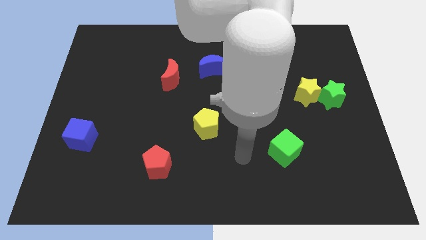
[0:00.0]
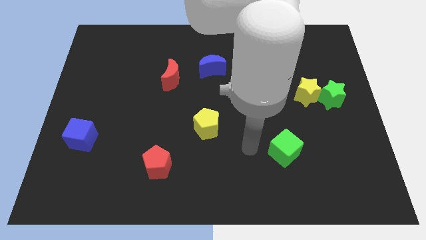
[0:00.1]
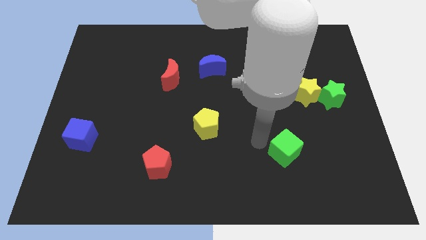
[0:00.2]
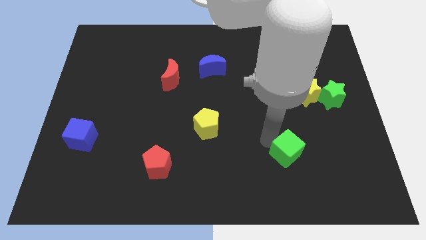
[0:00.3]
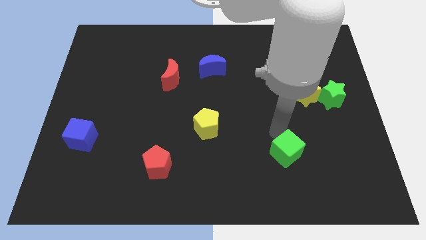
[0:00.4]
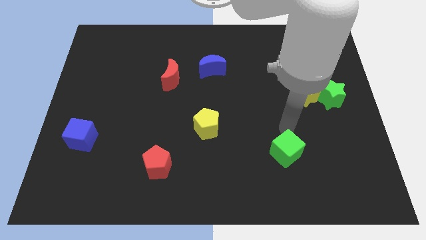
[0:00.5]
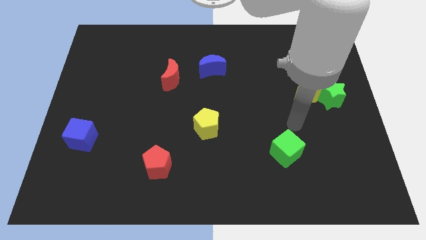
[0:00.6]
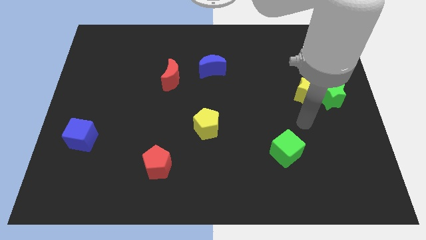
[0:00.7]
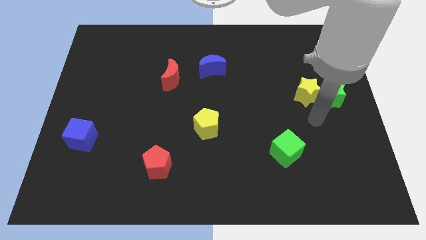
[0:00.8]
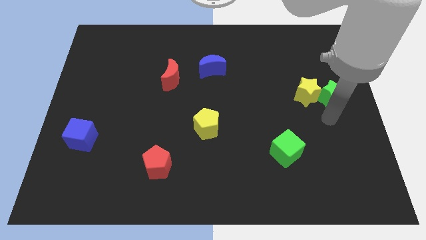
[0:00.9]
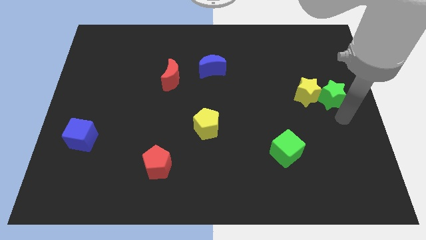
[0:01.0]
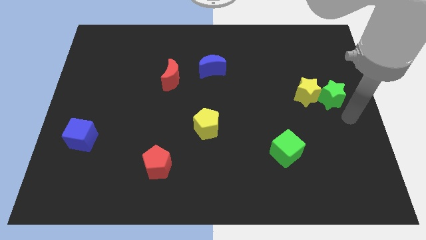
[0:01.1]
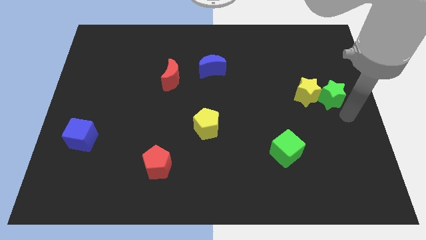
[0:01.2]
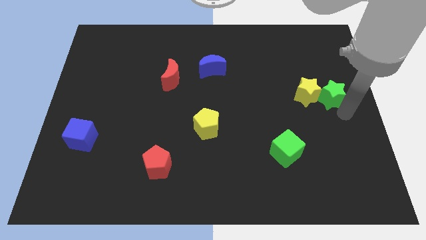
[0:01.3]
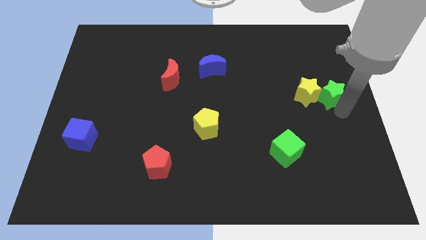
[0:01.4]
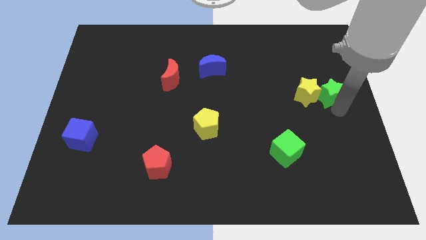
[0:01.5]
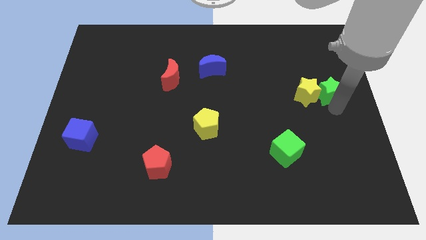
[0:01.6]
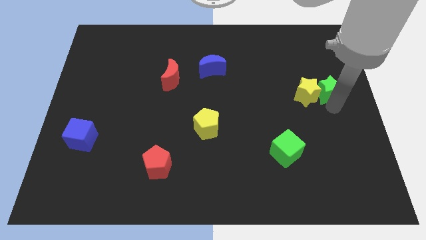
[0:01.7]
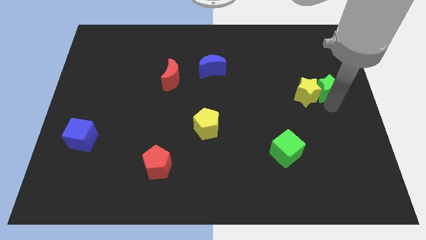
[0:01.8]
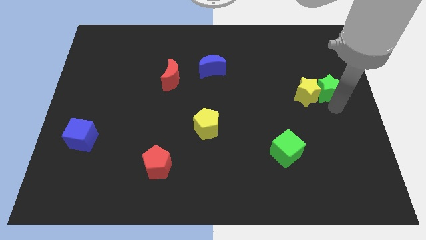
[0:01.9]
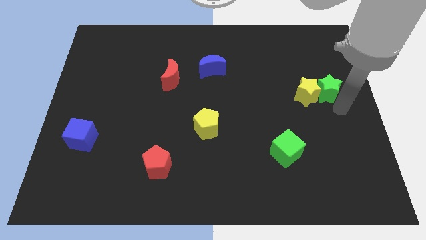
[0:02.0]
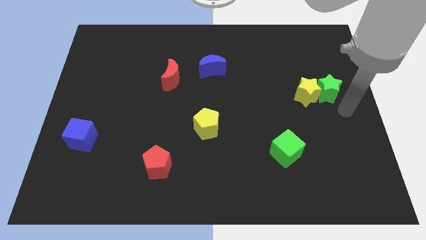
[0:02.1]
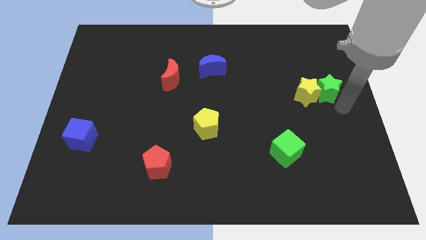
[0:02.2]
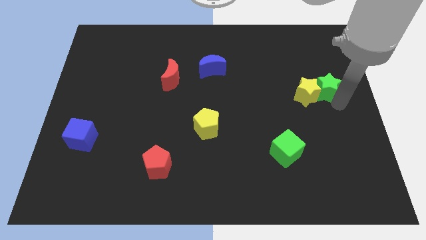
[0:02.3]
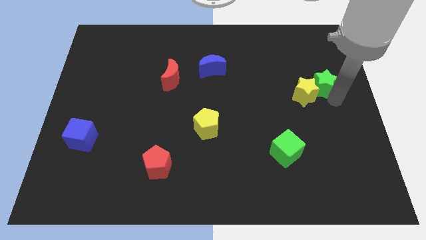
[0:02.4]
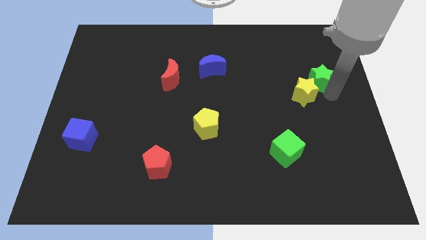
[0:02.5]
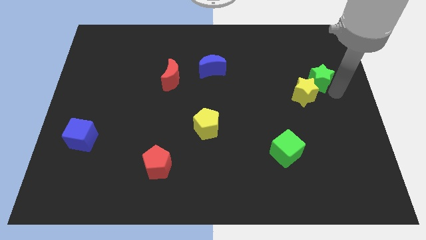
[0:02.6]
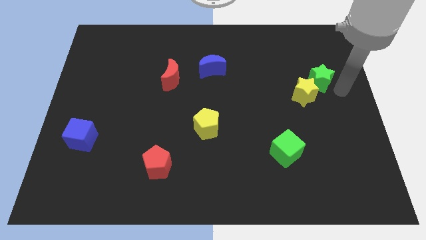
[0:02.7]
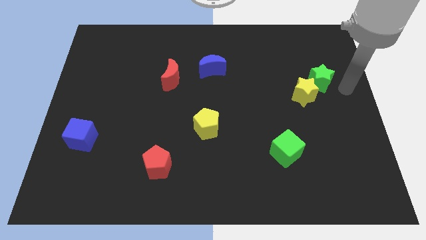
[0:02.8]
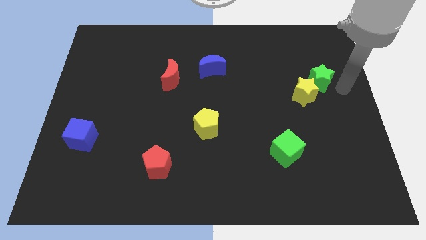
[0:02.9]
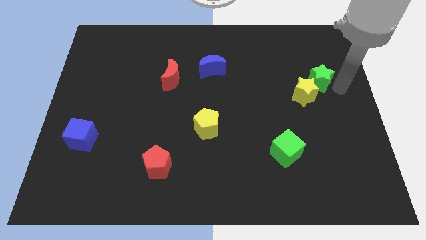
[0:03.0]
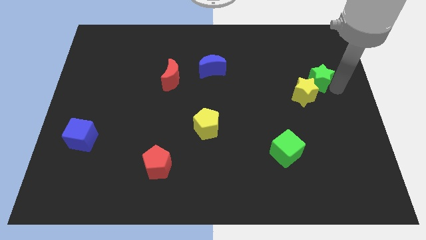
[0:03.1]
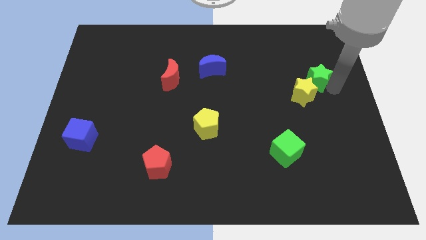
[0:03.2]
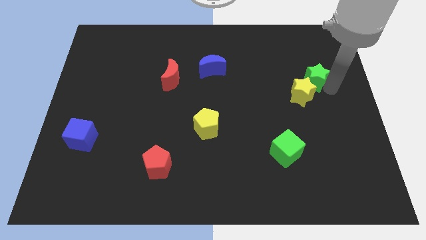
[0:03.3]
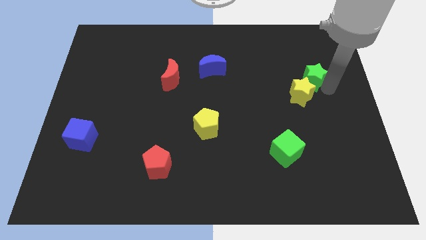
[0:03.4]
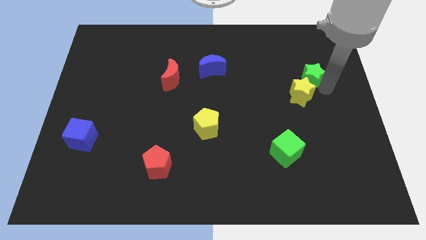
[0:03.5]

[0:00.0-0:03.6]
push the green star diagonally upwards and left a little

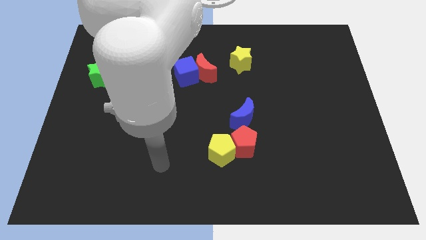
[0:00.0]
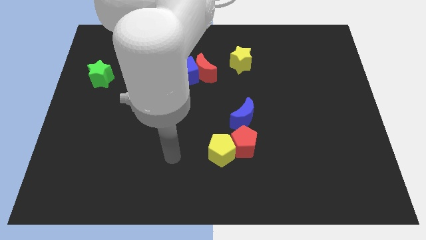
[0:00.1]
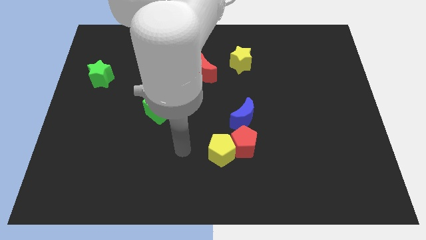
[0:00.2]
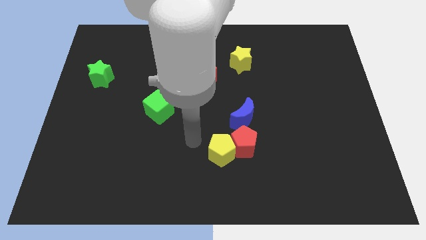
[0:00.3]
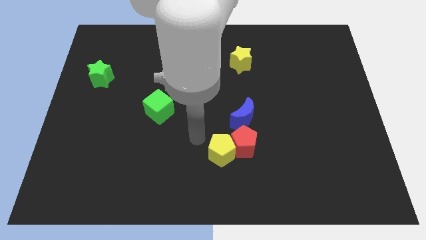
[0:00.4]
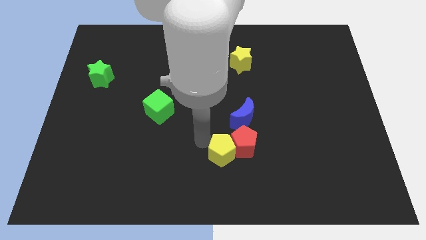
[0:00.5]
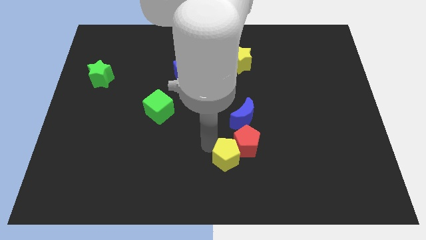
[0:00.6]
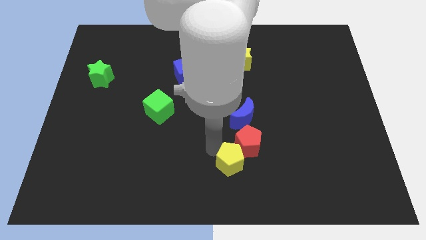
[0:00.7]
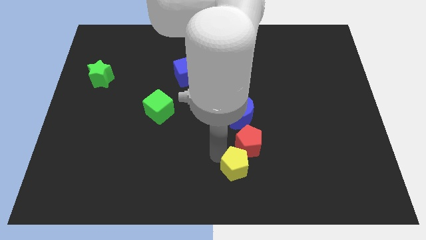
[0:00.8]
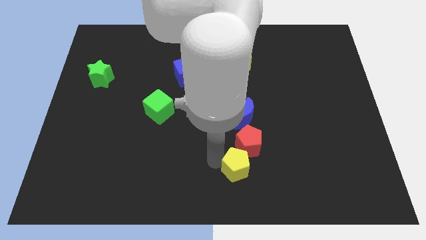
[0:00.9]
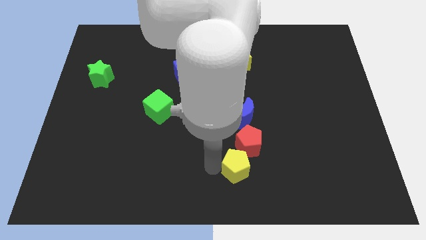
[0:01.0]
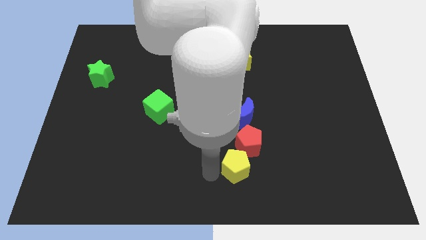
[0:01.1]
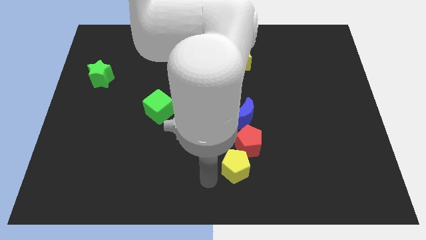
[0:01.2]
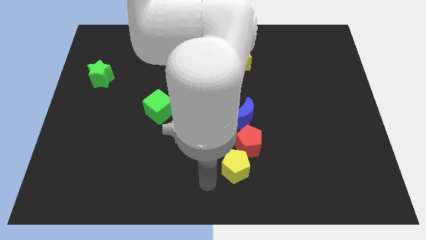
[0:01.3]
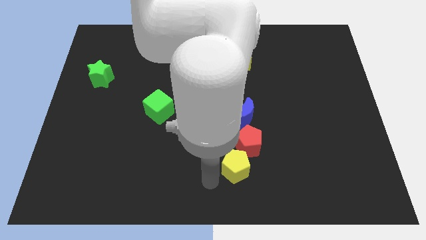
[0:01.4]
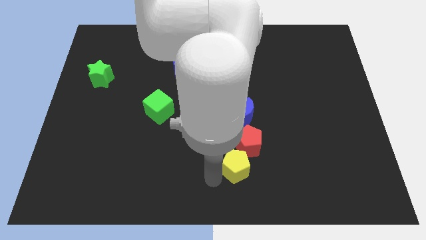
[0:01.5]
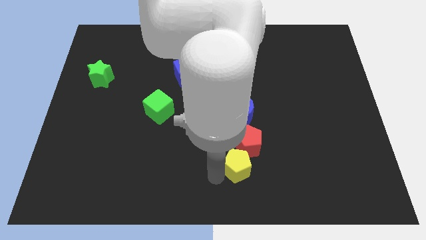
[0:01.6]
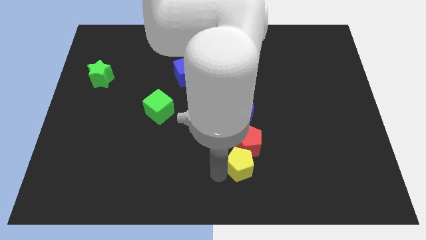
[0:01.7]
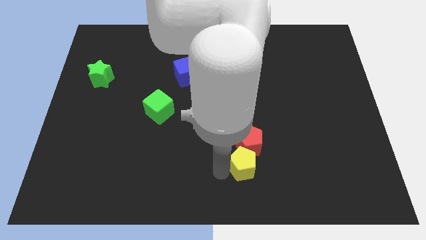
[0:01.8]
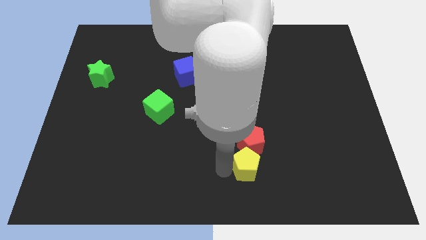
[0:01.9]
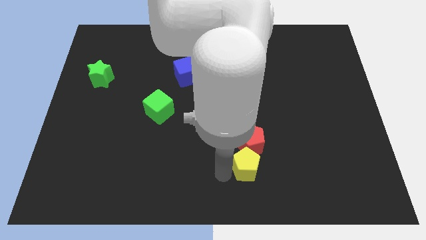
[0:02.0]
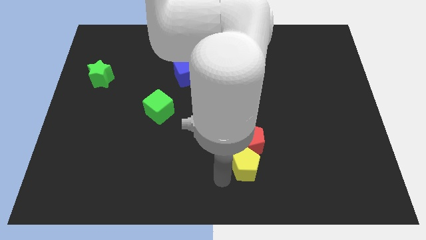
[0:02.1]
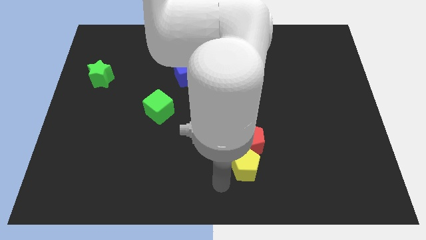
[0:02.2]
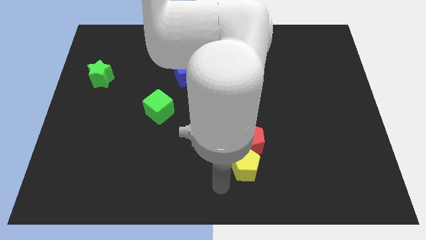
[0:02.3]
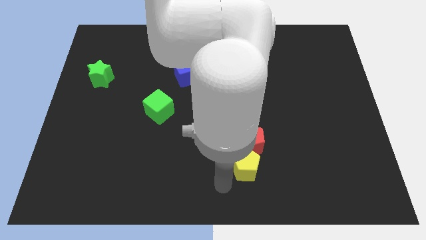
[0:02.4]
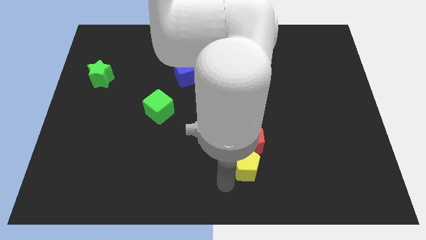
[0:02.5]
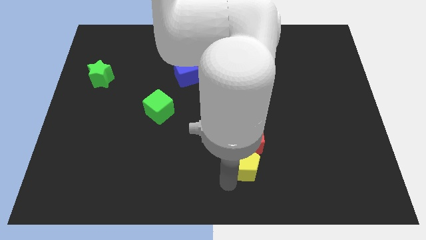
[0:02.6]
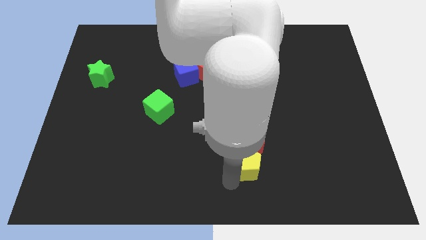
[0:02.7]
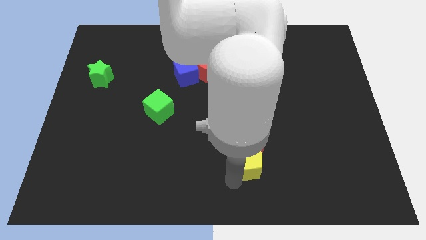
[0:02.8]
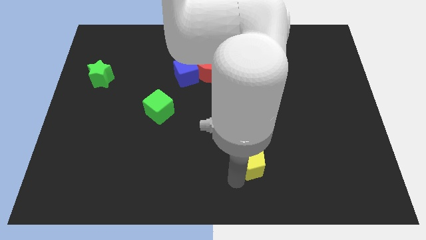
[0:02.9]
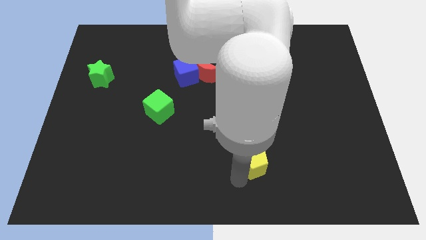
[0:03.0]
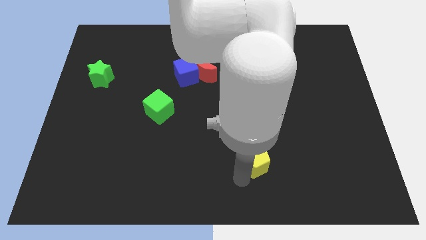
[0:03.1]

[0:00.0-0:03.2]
push the yellow pentagon right a bit

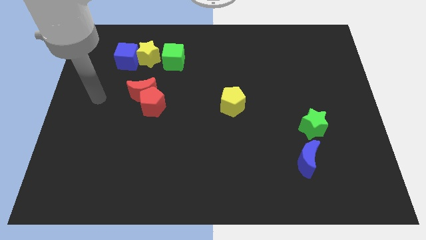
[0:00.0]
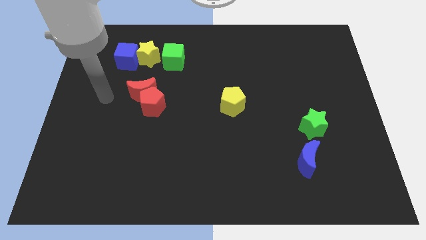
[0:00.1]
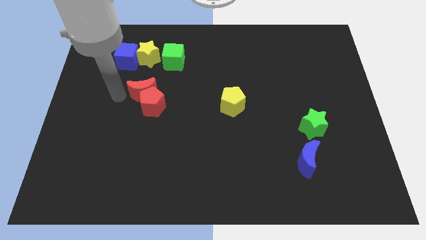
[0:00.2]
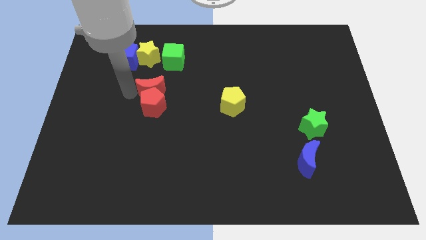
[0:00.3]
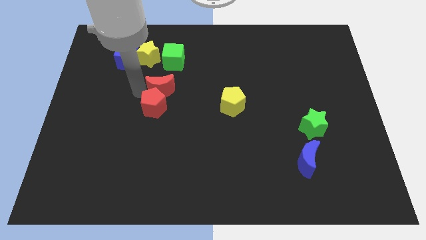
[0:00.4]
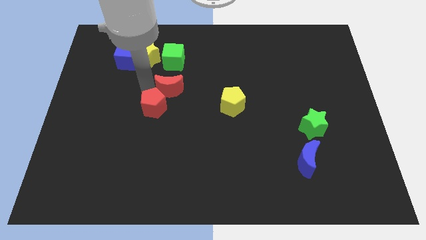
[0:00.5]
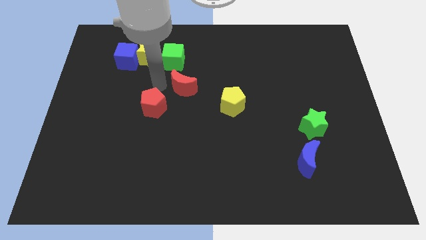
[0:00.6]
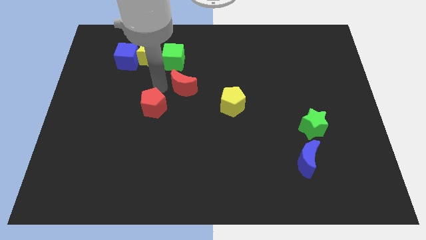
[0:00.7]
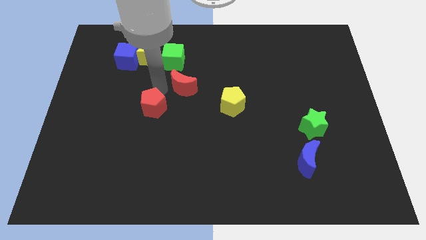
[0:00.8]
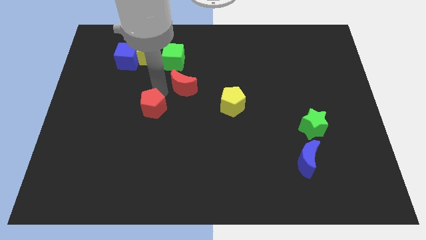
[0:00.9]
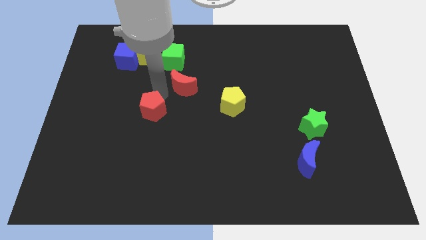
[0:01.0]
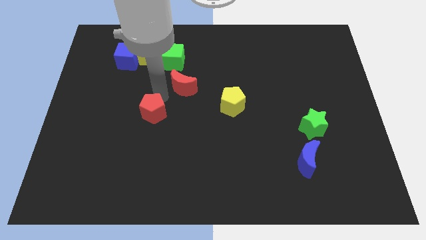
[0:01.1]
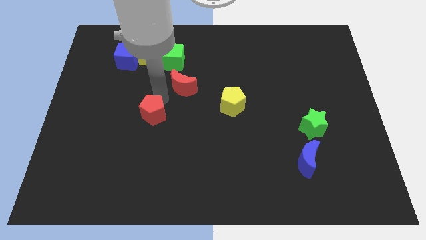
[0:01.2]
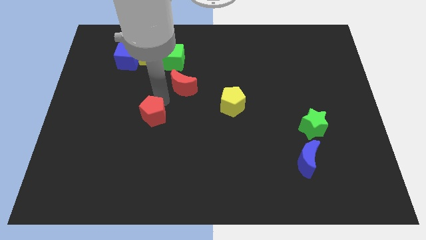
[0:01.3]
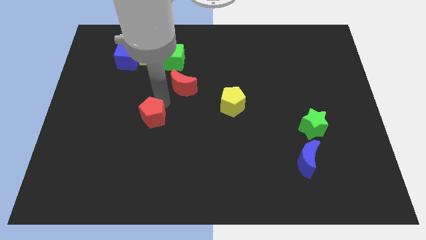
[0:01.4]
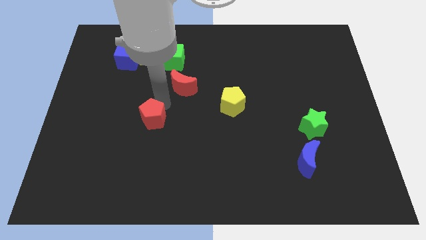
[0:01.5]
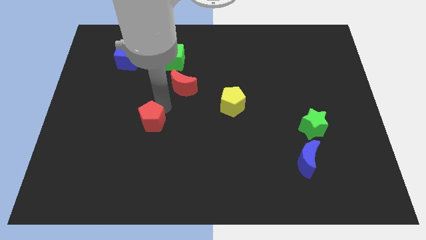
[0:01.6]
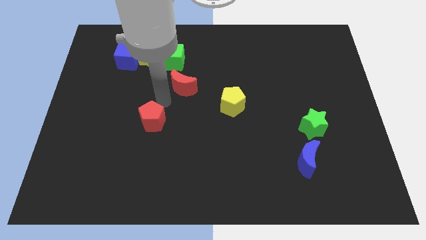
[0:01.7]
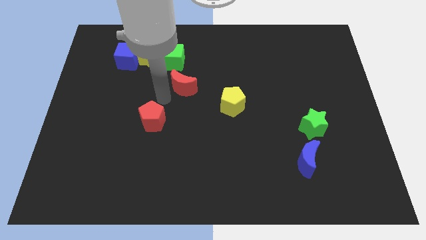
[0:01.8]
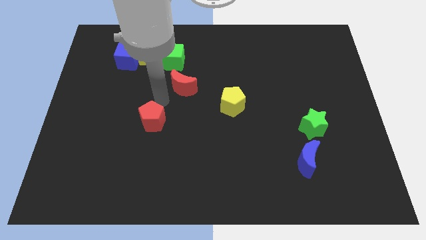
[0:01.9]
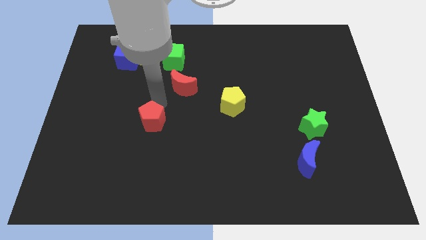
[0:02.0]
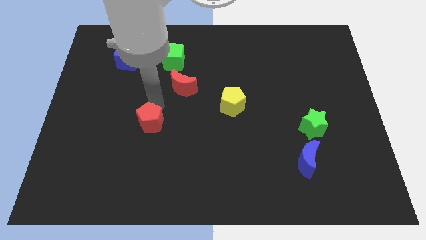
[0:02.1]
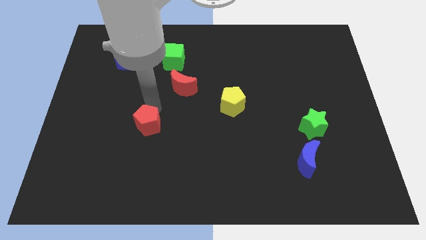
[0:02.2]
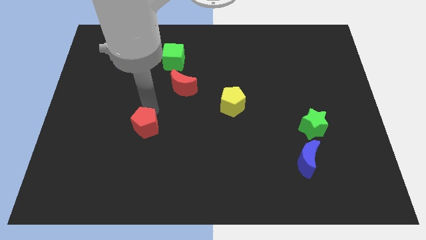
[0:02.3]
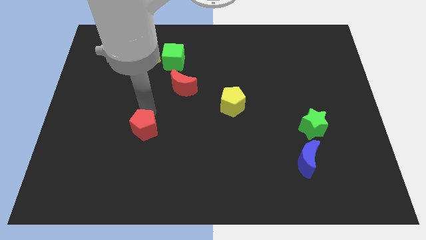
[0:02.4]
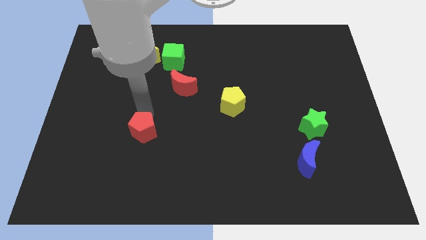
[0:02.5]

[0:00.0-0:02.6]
slide the red pentagon a bit downwards
